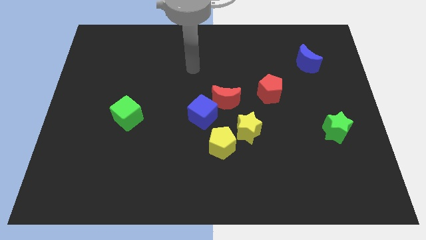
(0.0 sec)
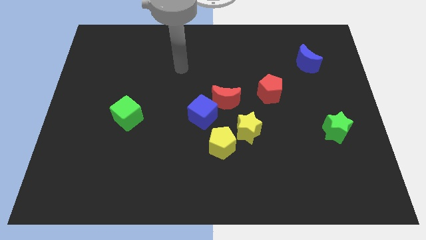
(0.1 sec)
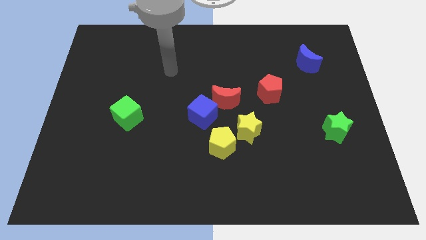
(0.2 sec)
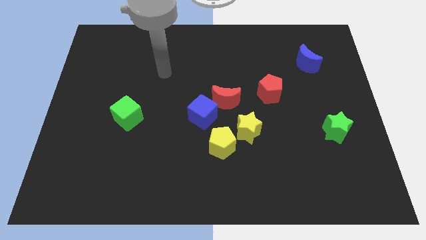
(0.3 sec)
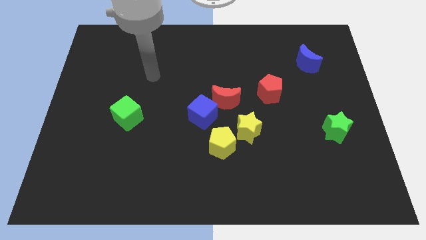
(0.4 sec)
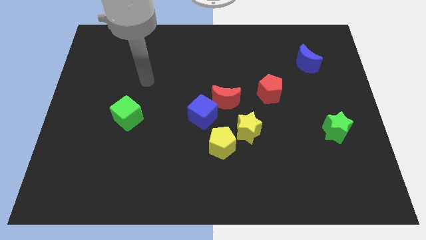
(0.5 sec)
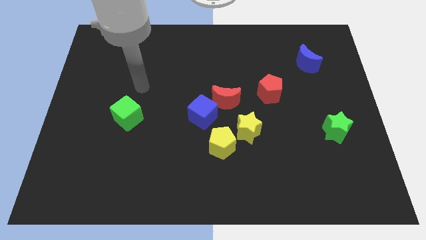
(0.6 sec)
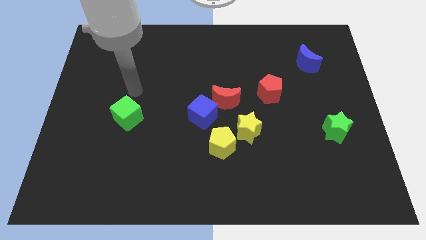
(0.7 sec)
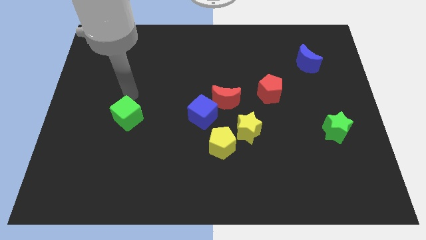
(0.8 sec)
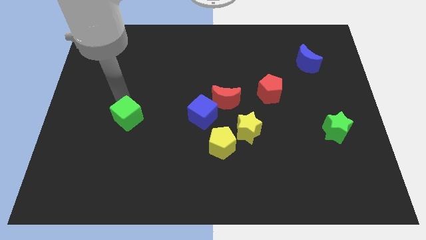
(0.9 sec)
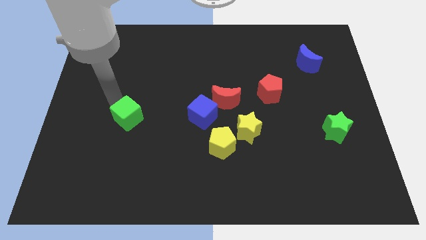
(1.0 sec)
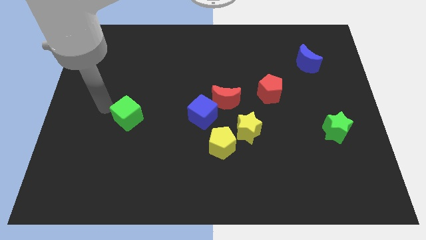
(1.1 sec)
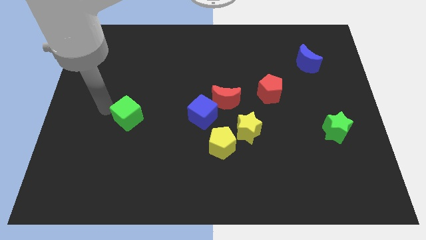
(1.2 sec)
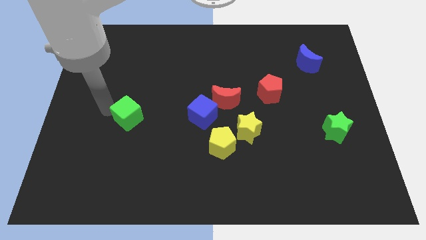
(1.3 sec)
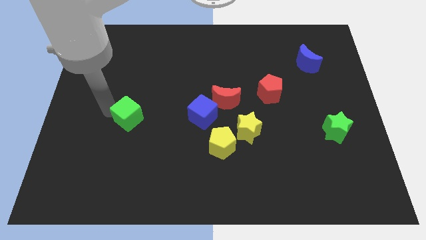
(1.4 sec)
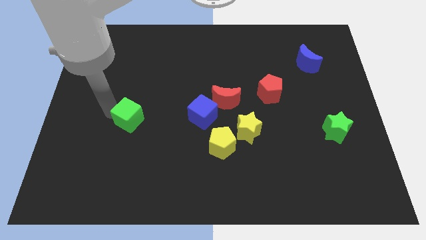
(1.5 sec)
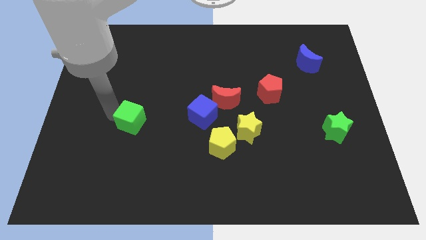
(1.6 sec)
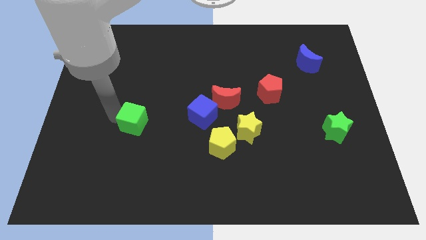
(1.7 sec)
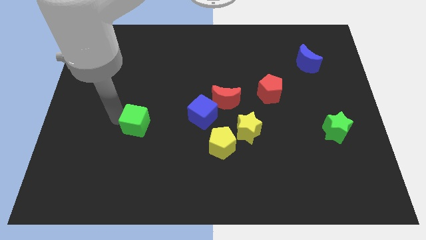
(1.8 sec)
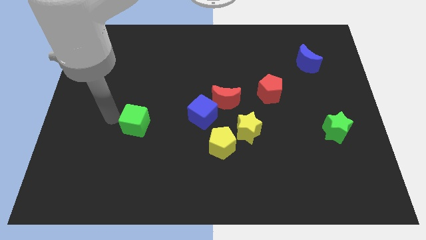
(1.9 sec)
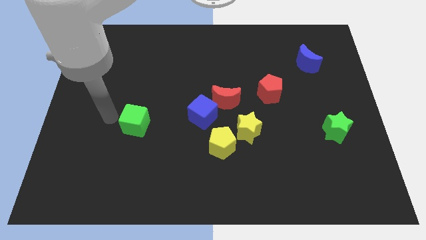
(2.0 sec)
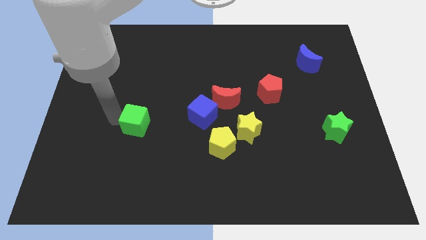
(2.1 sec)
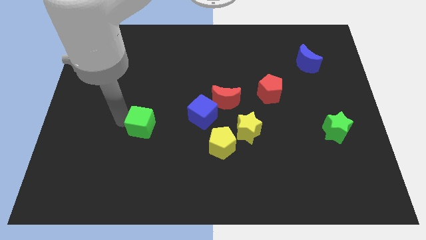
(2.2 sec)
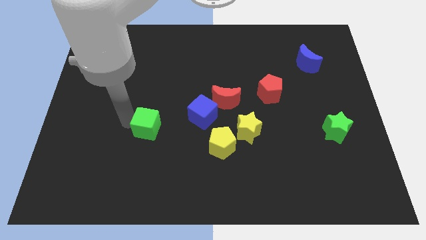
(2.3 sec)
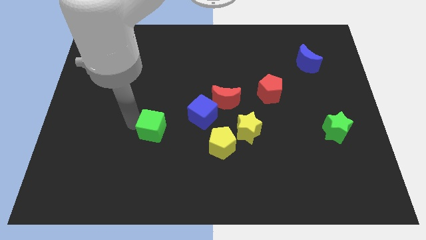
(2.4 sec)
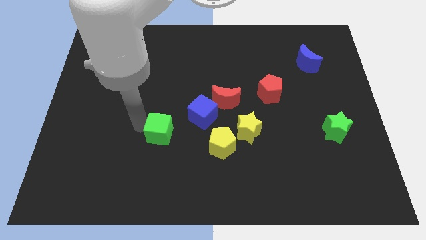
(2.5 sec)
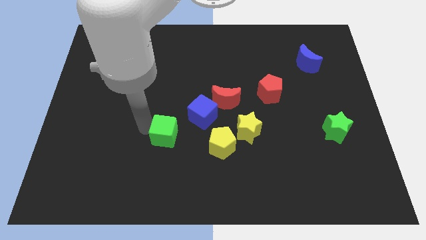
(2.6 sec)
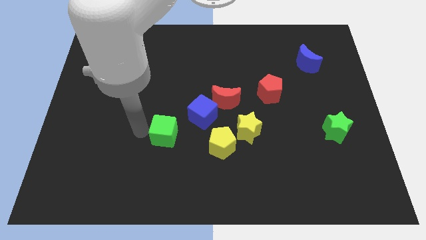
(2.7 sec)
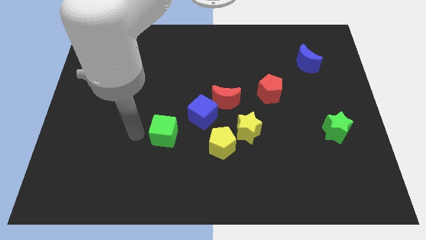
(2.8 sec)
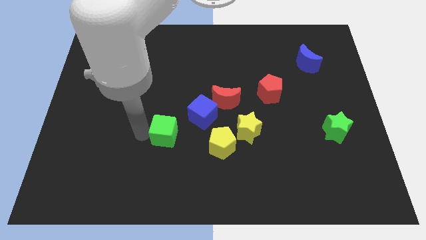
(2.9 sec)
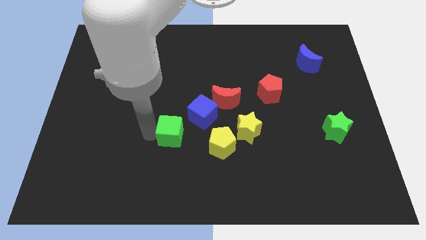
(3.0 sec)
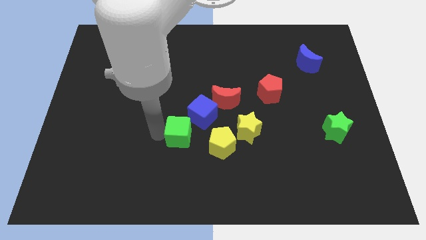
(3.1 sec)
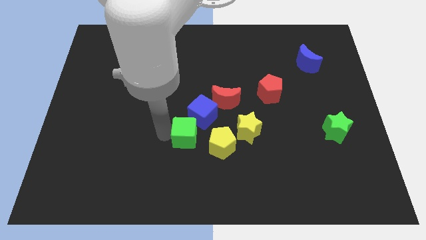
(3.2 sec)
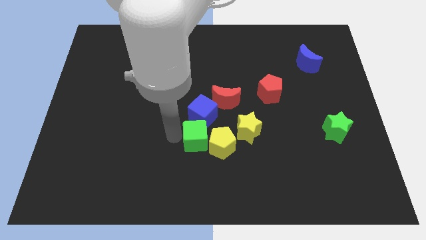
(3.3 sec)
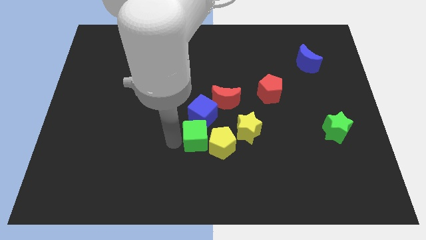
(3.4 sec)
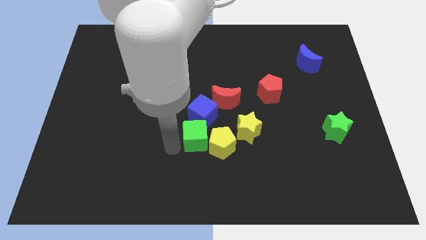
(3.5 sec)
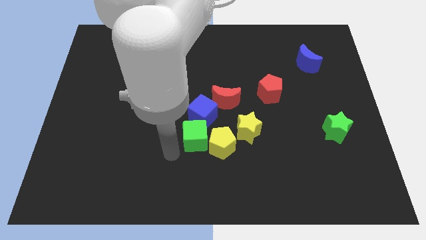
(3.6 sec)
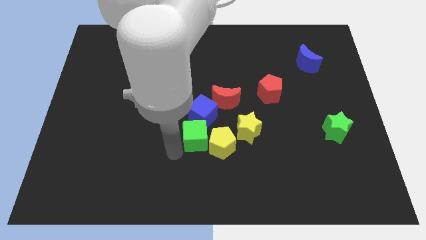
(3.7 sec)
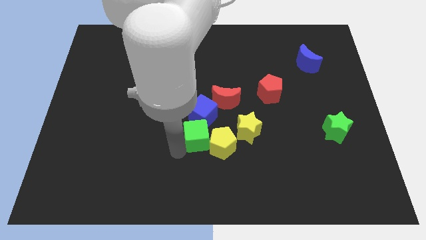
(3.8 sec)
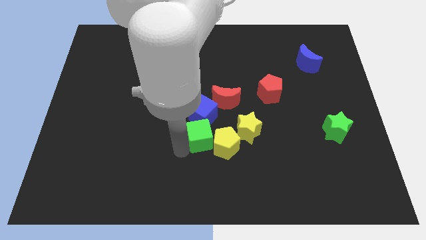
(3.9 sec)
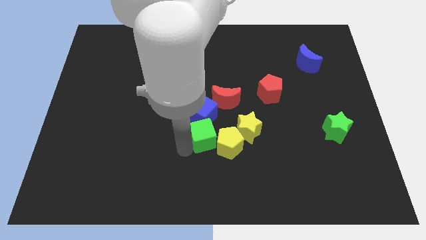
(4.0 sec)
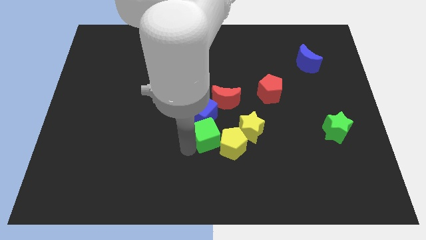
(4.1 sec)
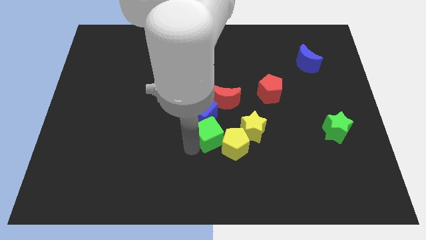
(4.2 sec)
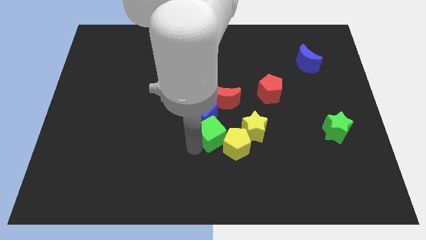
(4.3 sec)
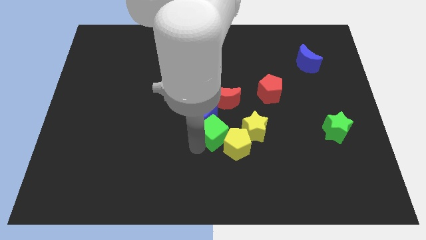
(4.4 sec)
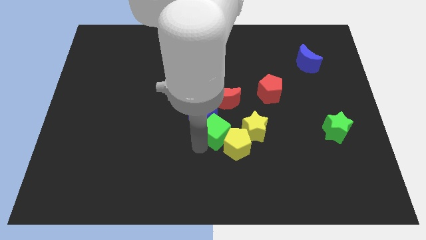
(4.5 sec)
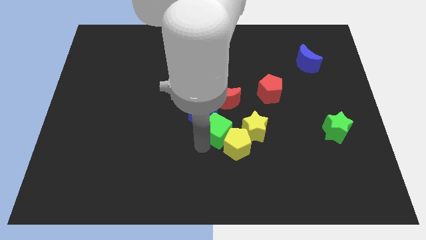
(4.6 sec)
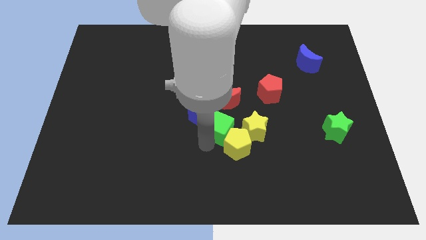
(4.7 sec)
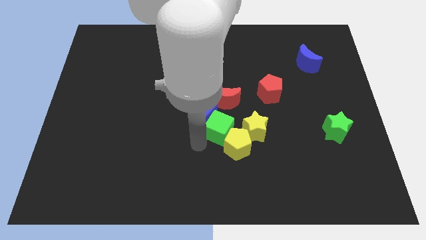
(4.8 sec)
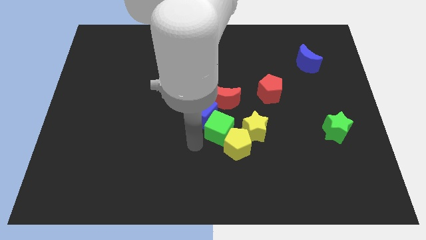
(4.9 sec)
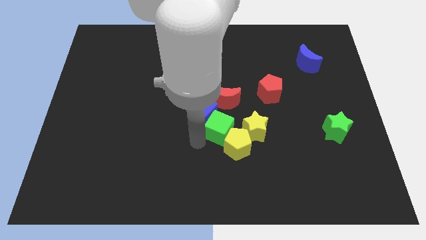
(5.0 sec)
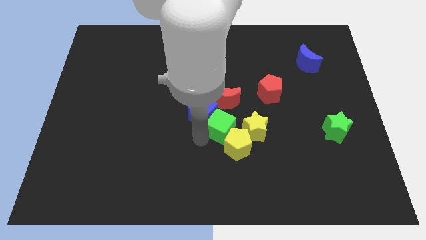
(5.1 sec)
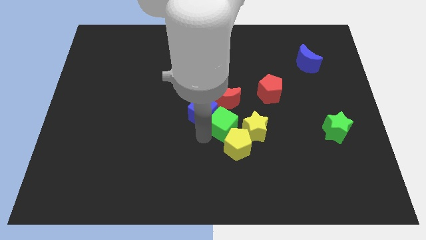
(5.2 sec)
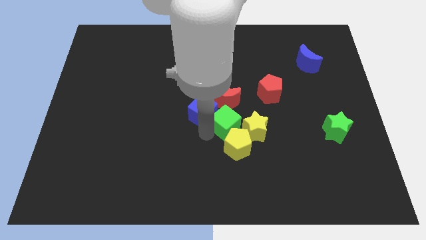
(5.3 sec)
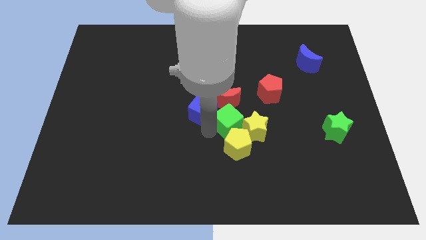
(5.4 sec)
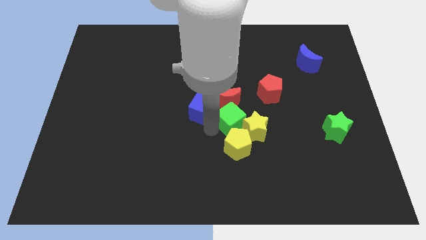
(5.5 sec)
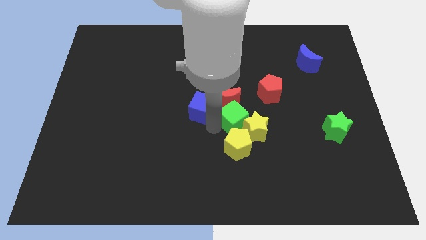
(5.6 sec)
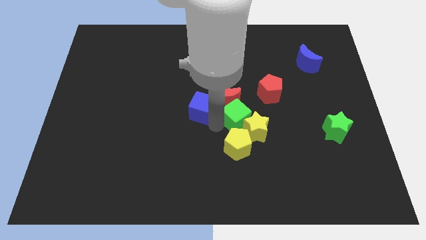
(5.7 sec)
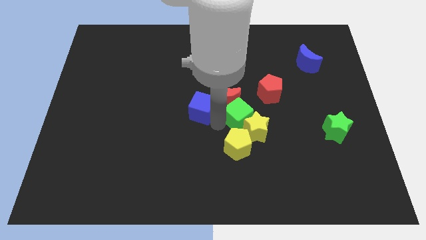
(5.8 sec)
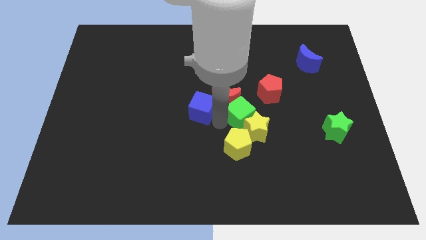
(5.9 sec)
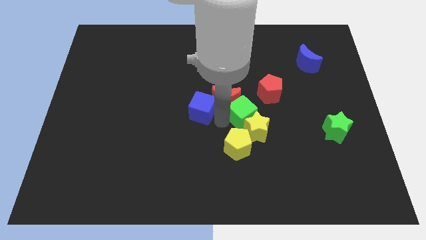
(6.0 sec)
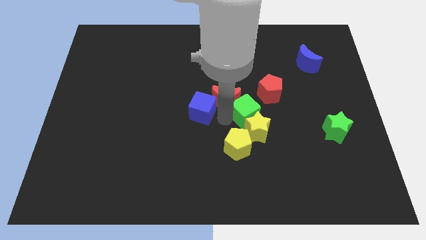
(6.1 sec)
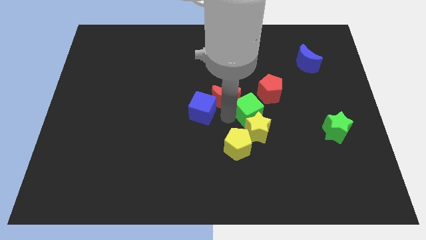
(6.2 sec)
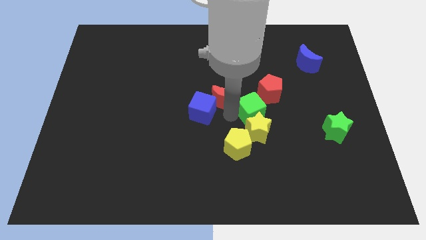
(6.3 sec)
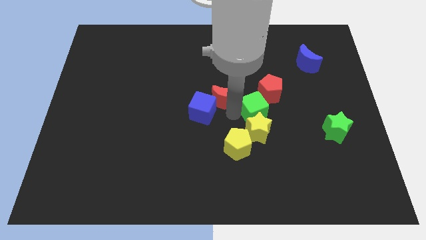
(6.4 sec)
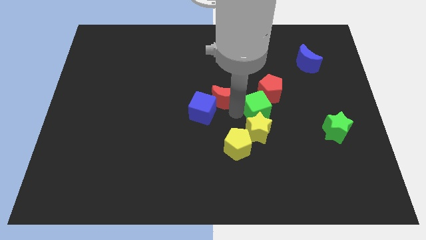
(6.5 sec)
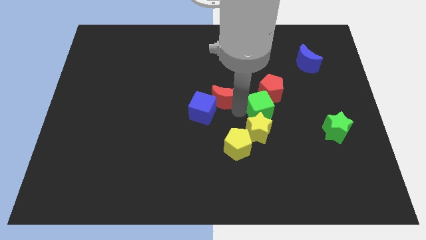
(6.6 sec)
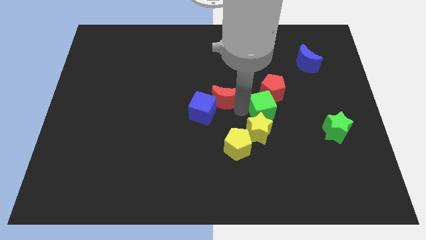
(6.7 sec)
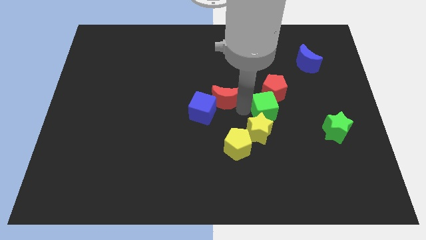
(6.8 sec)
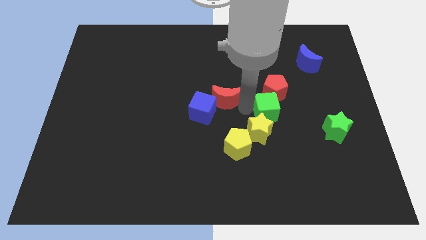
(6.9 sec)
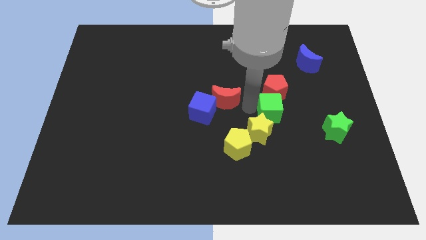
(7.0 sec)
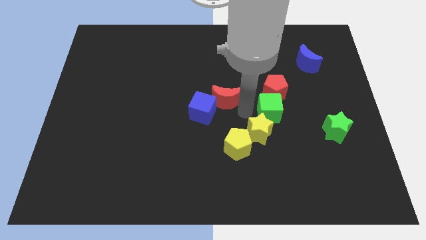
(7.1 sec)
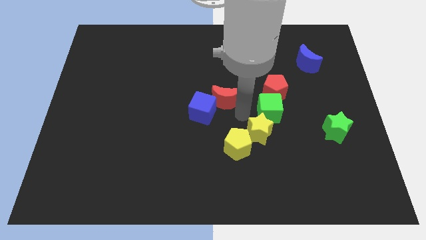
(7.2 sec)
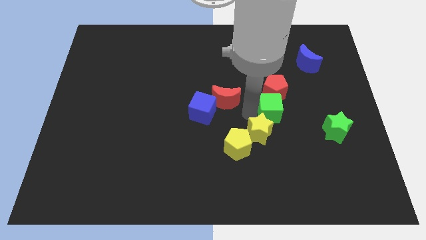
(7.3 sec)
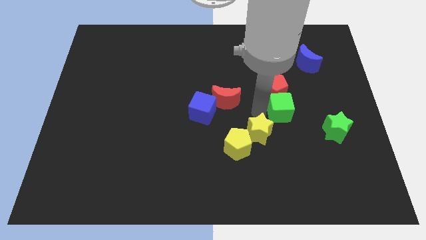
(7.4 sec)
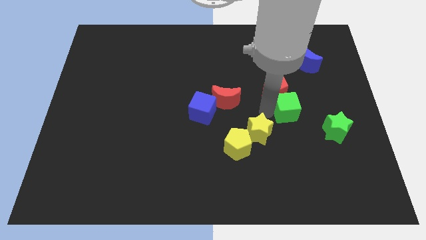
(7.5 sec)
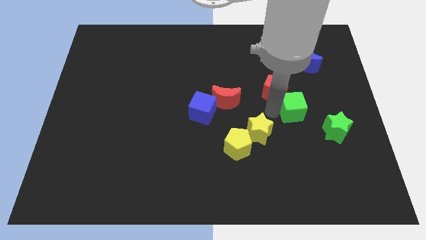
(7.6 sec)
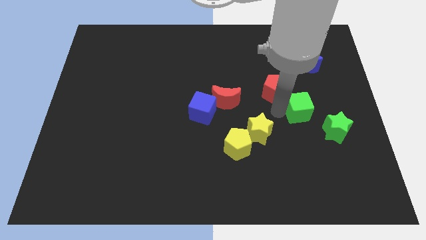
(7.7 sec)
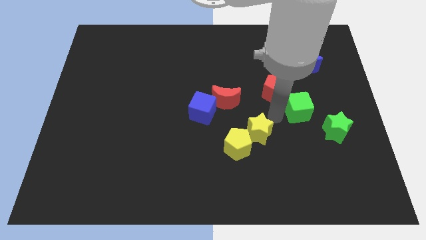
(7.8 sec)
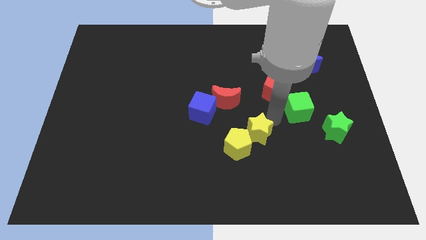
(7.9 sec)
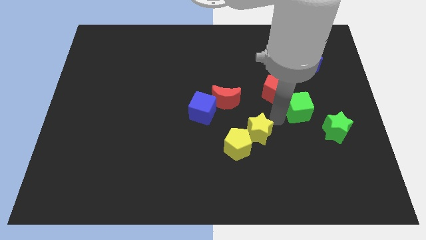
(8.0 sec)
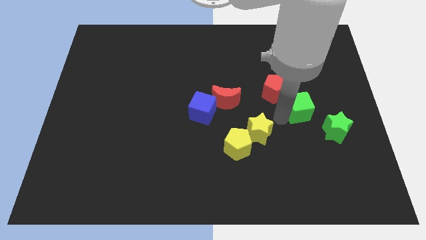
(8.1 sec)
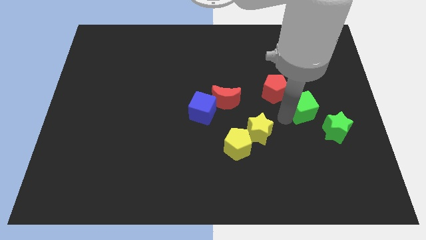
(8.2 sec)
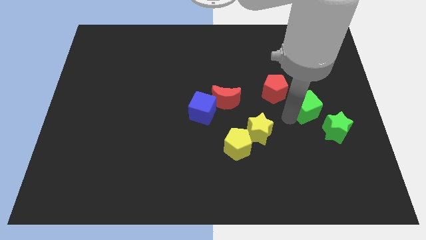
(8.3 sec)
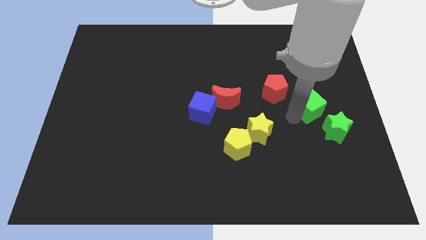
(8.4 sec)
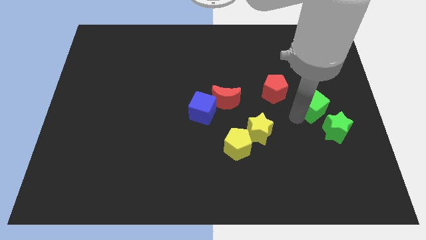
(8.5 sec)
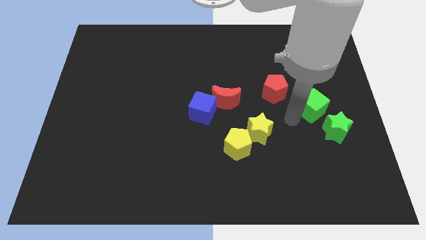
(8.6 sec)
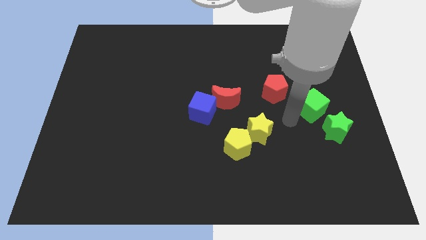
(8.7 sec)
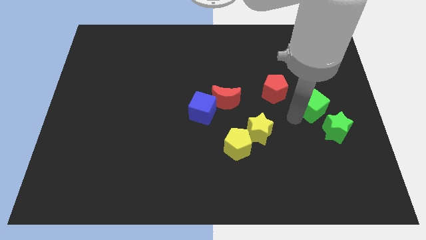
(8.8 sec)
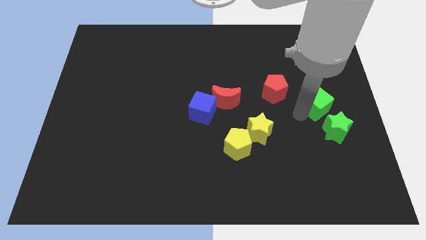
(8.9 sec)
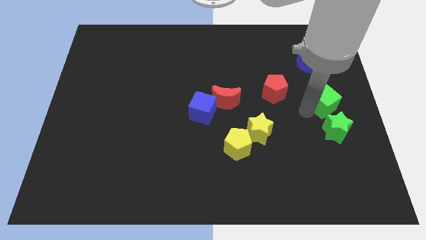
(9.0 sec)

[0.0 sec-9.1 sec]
push the green cube to the right side
